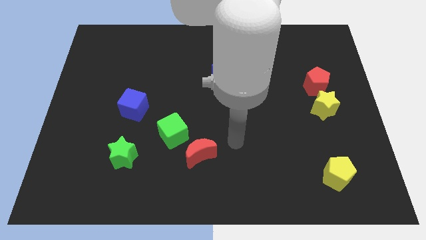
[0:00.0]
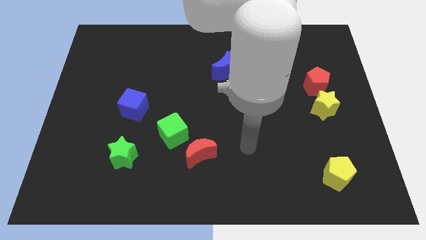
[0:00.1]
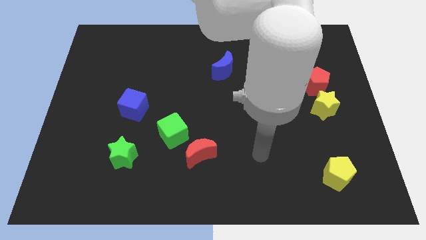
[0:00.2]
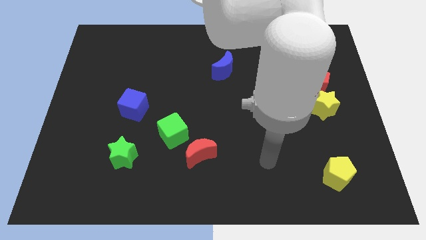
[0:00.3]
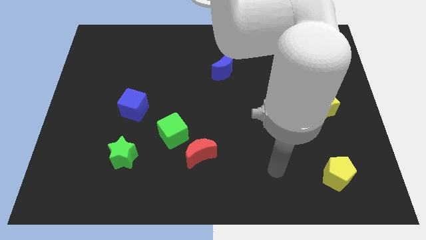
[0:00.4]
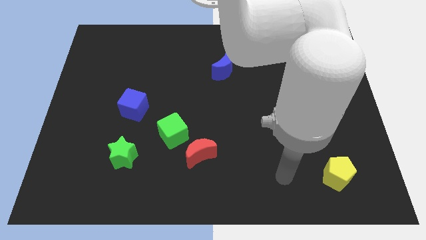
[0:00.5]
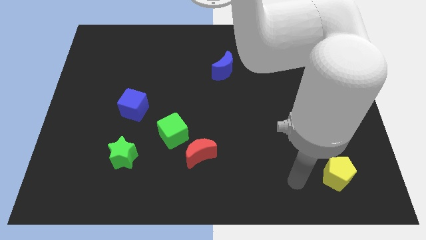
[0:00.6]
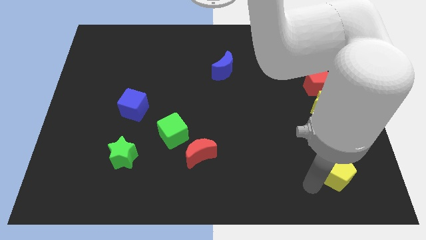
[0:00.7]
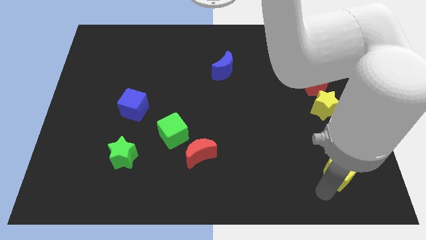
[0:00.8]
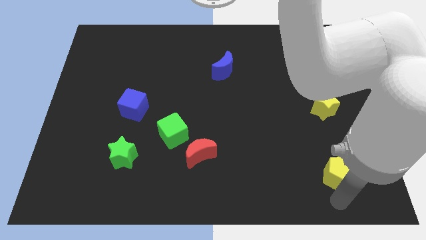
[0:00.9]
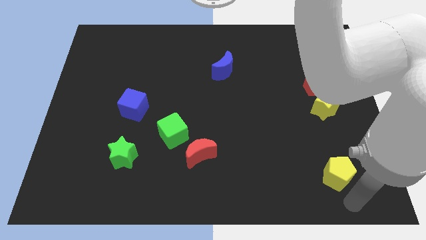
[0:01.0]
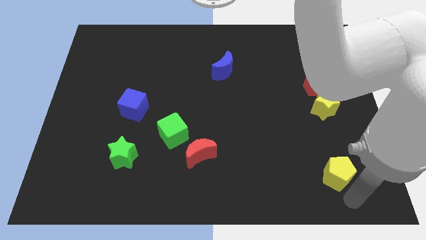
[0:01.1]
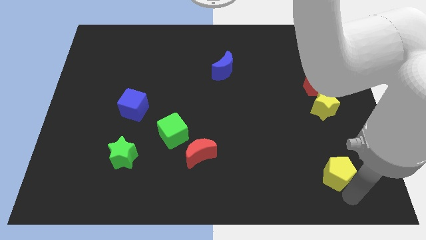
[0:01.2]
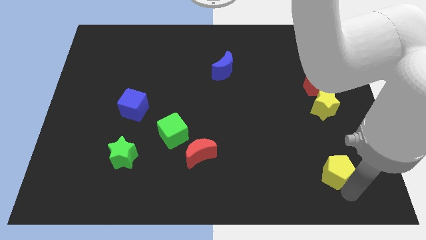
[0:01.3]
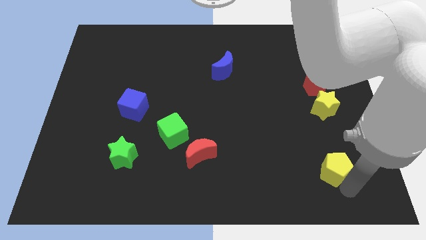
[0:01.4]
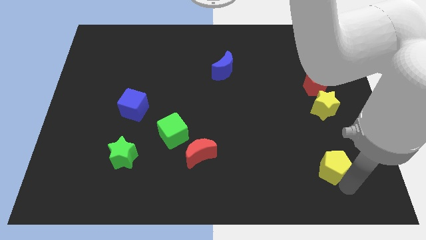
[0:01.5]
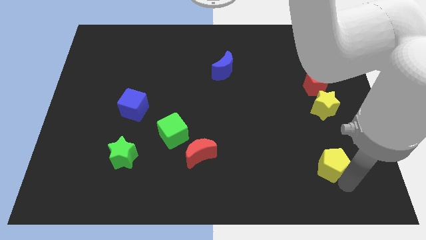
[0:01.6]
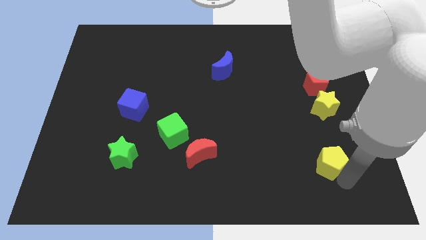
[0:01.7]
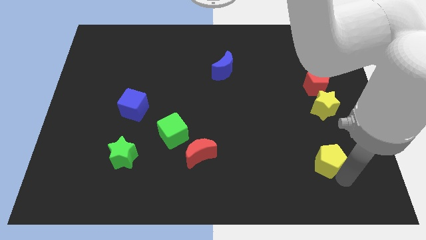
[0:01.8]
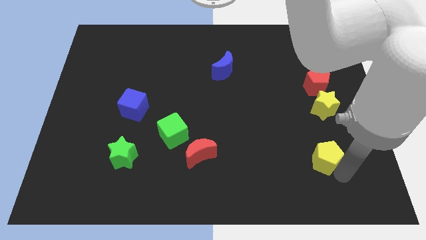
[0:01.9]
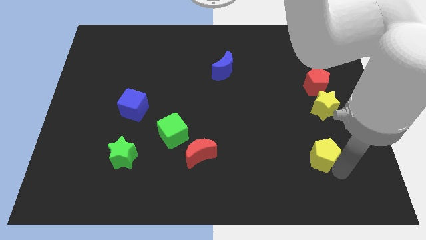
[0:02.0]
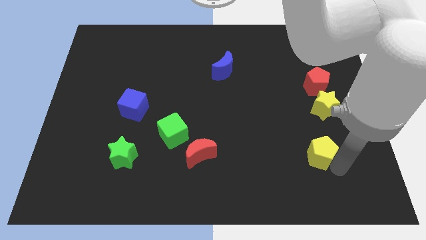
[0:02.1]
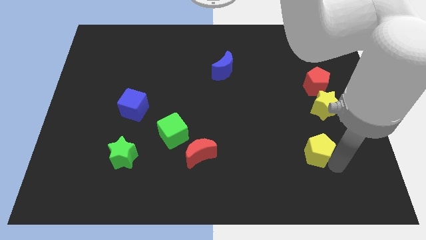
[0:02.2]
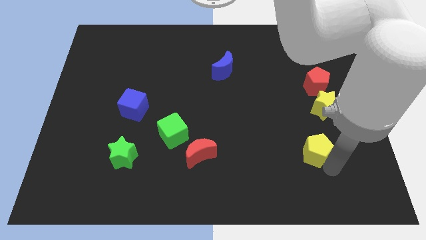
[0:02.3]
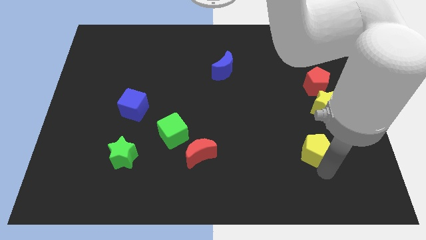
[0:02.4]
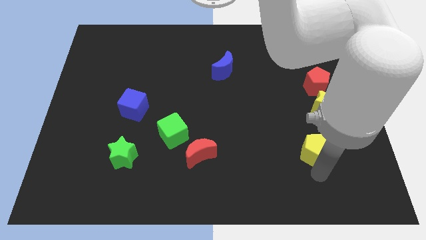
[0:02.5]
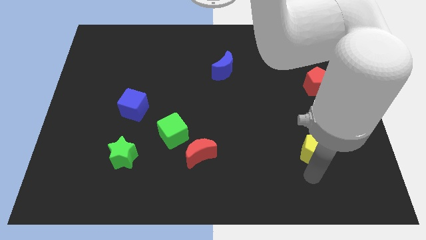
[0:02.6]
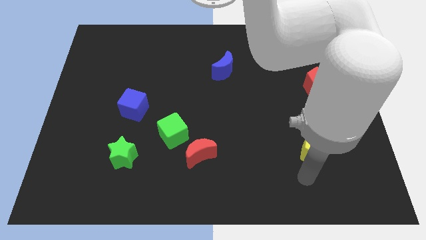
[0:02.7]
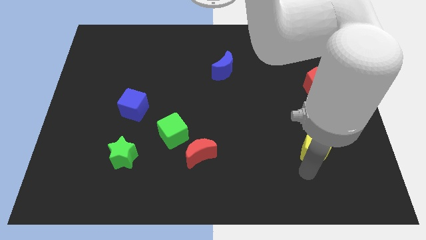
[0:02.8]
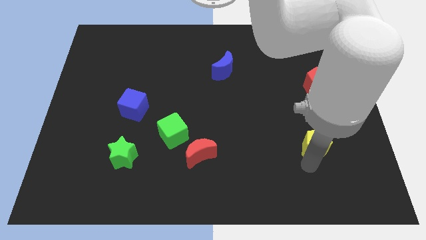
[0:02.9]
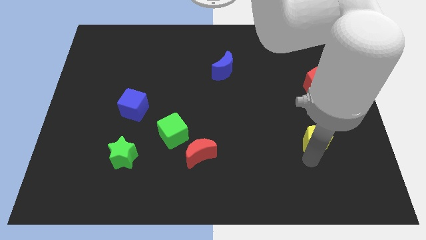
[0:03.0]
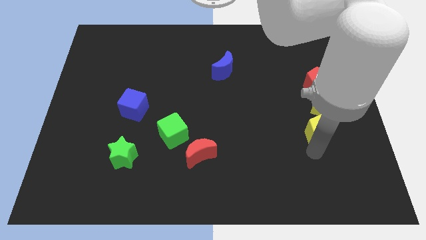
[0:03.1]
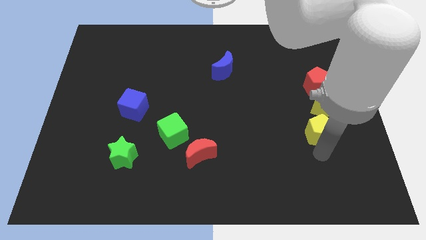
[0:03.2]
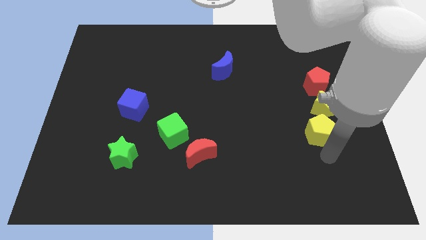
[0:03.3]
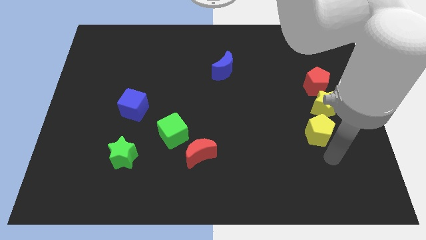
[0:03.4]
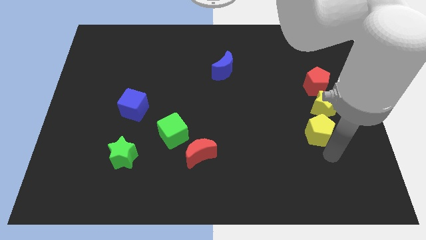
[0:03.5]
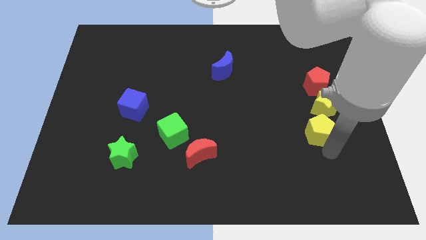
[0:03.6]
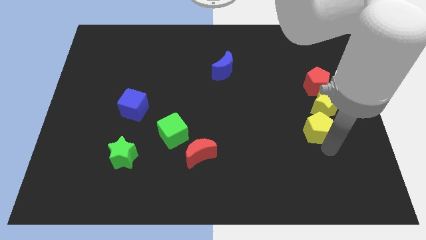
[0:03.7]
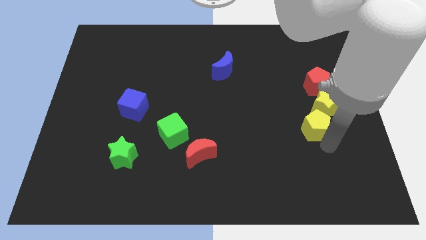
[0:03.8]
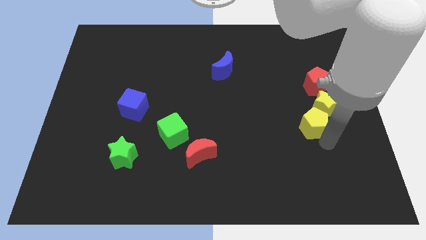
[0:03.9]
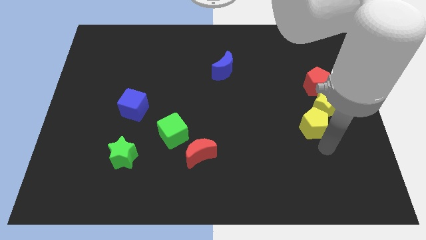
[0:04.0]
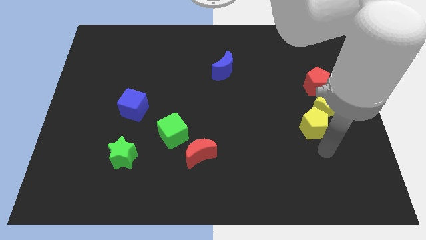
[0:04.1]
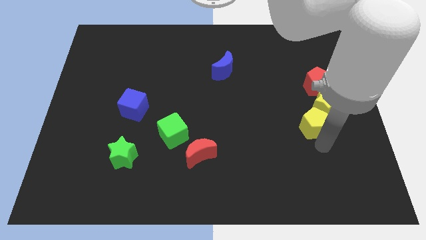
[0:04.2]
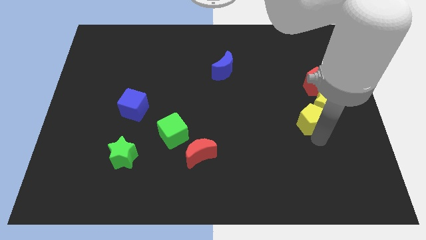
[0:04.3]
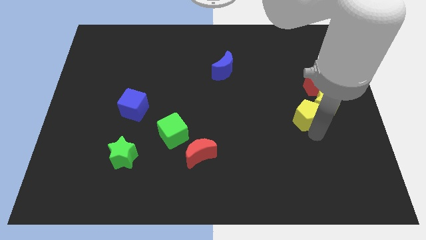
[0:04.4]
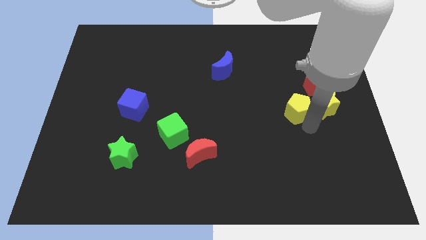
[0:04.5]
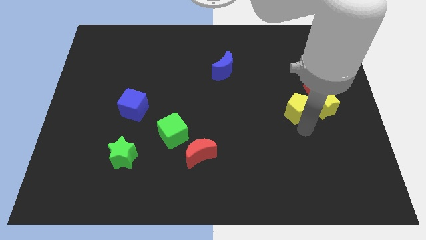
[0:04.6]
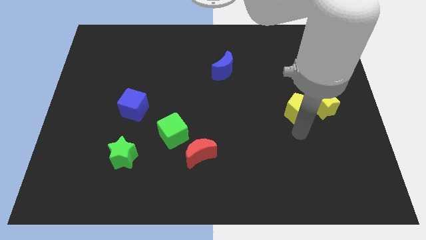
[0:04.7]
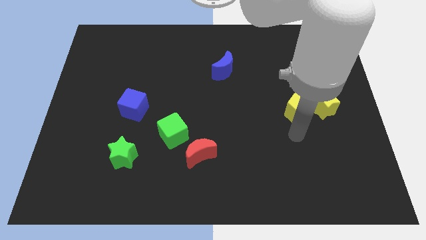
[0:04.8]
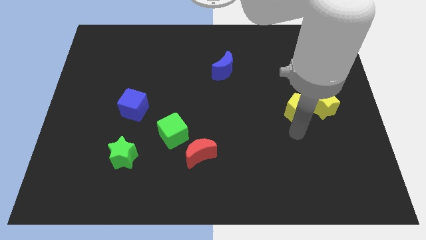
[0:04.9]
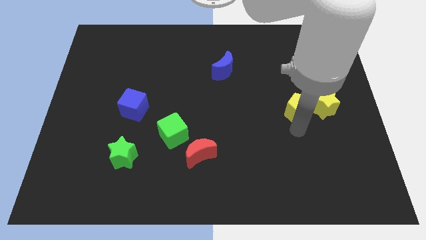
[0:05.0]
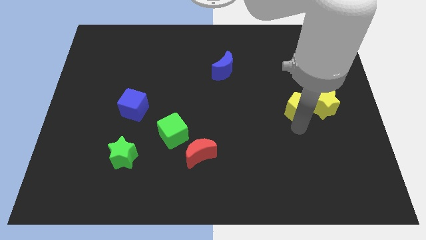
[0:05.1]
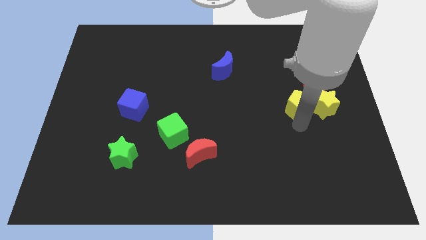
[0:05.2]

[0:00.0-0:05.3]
push the yellow pentagon to the top left of the yellow star

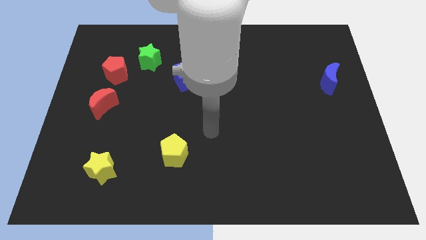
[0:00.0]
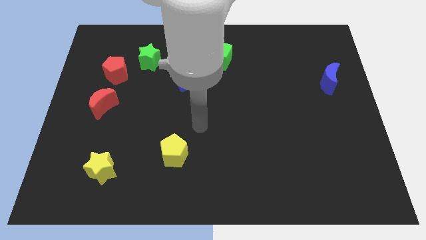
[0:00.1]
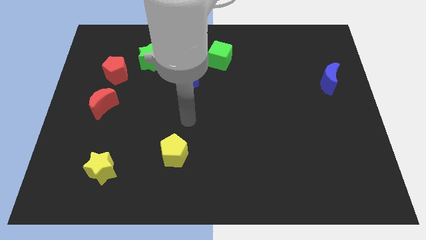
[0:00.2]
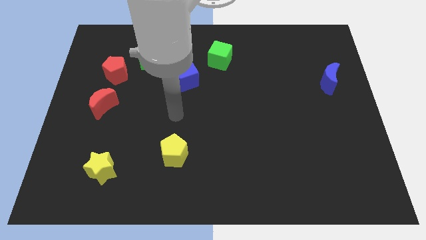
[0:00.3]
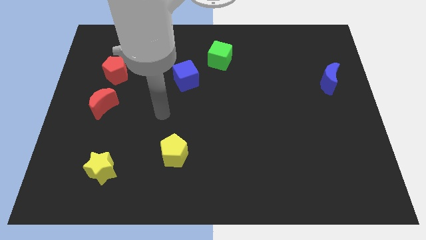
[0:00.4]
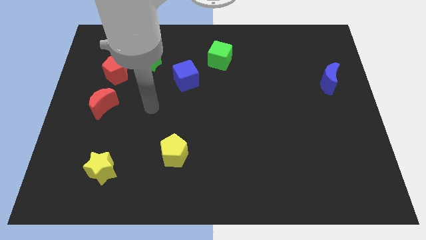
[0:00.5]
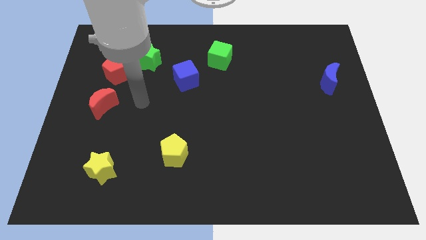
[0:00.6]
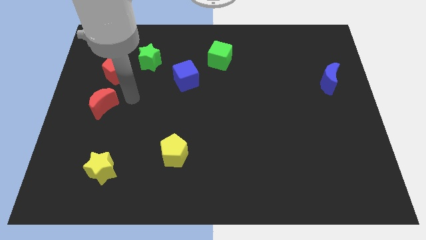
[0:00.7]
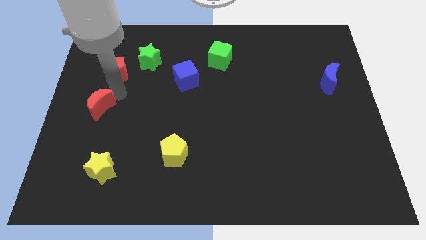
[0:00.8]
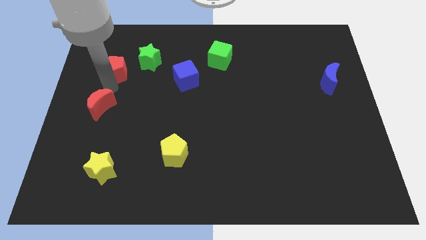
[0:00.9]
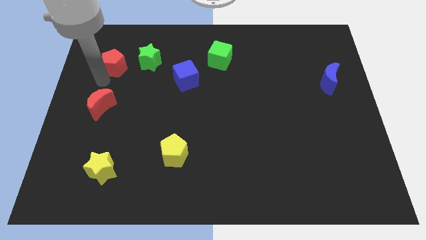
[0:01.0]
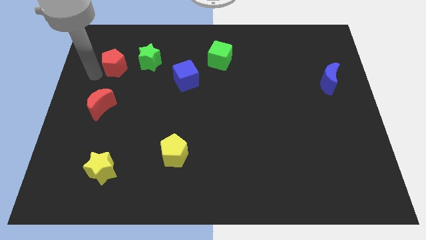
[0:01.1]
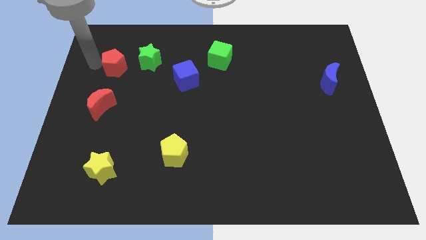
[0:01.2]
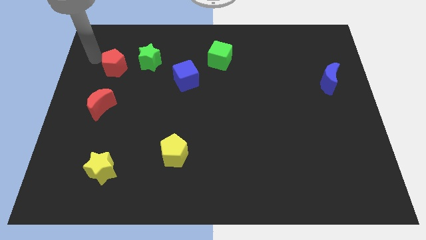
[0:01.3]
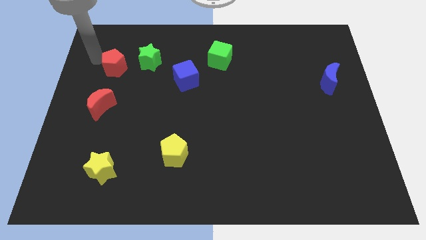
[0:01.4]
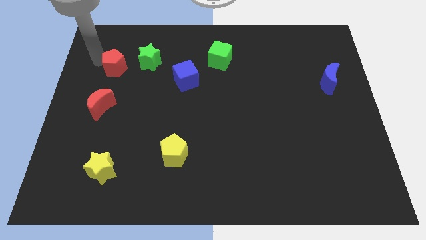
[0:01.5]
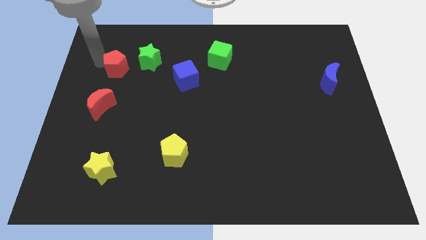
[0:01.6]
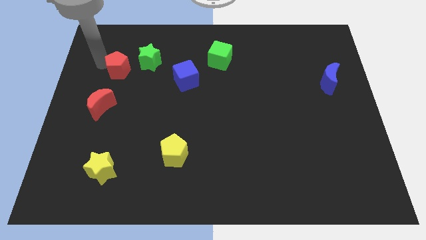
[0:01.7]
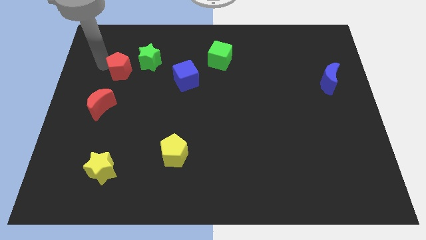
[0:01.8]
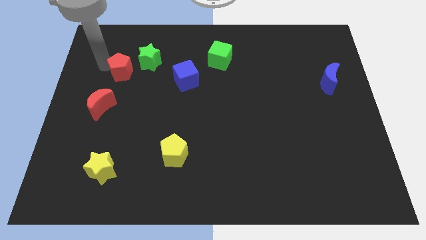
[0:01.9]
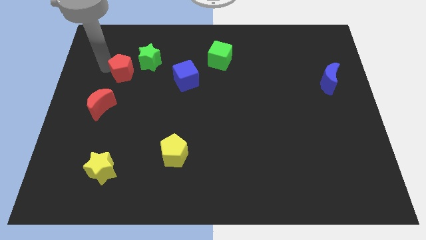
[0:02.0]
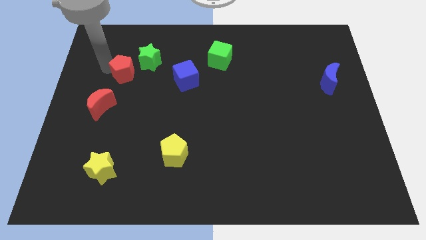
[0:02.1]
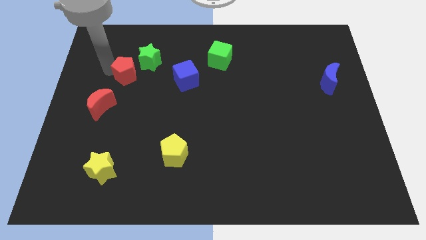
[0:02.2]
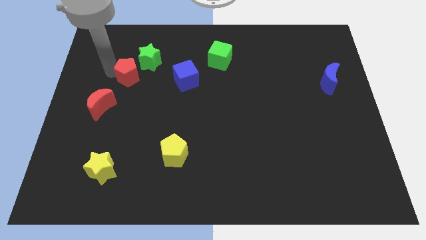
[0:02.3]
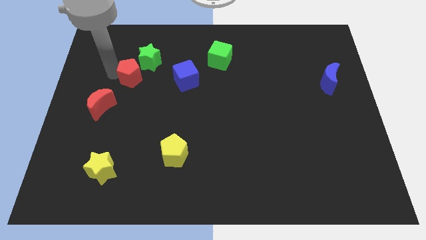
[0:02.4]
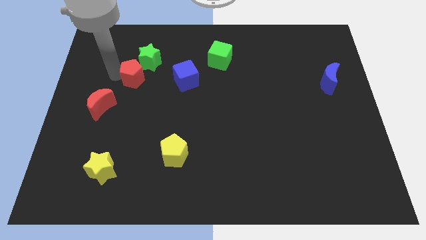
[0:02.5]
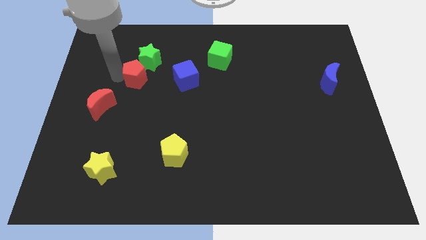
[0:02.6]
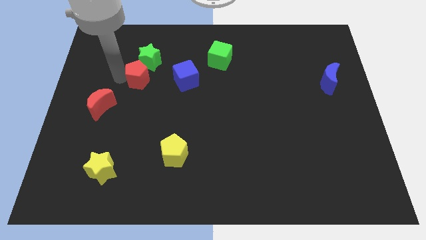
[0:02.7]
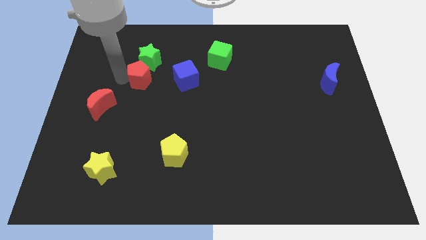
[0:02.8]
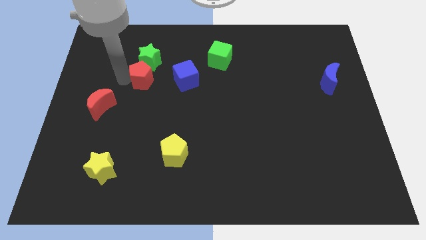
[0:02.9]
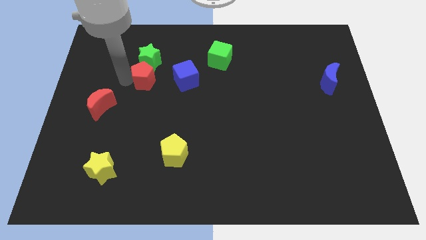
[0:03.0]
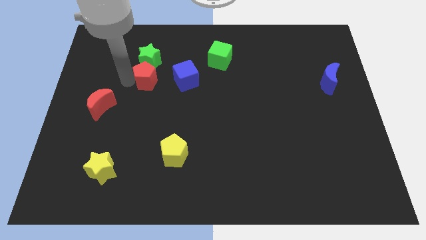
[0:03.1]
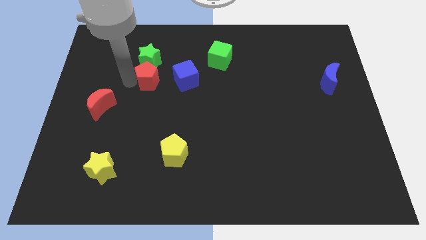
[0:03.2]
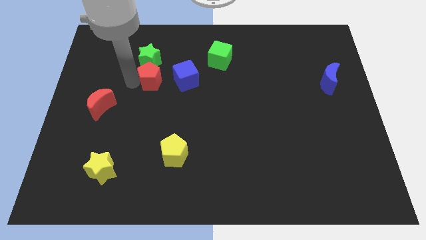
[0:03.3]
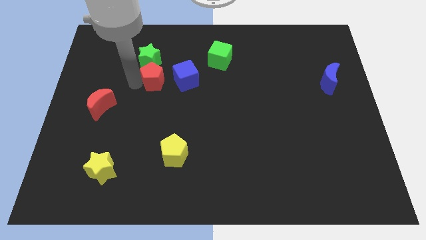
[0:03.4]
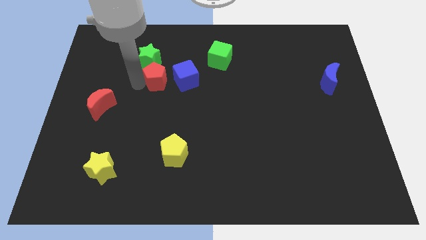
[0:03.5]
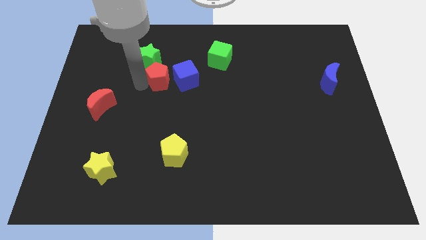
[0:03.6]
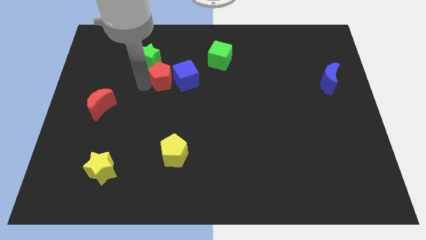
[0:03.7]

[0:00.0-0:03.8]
slide the red pentagon diagonally up and to the left of the blue cube
